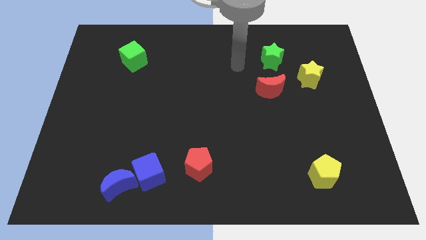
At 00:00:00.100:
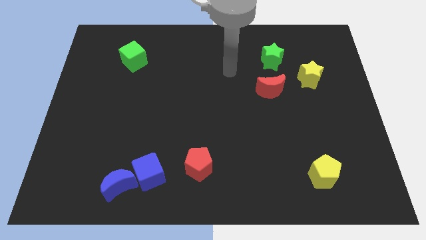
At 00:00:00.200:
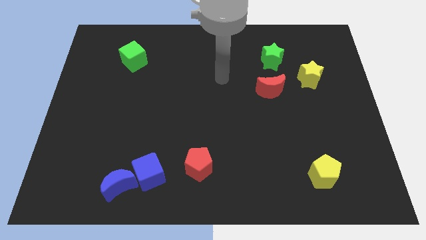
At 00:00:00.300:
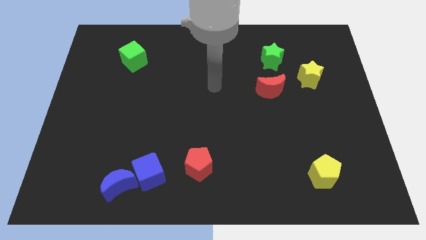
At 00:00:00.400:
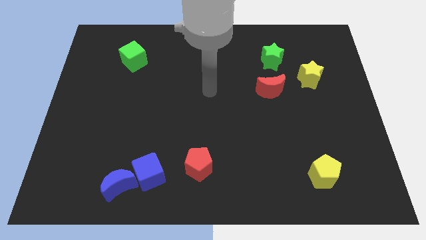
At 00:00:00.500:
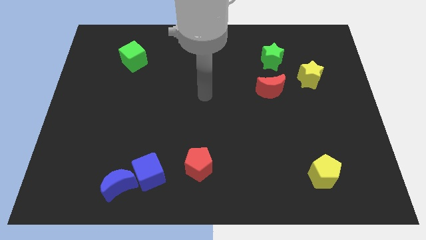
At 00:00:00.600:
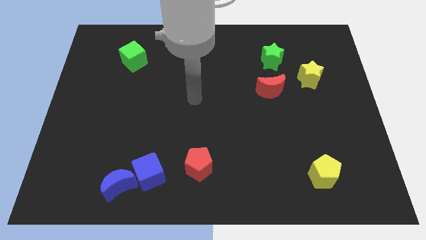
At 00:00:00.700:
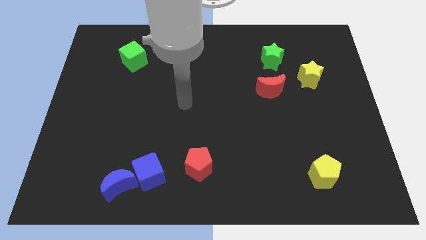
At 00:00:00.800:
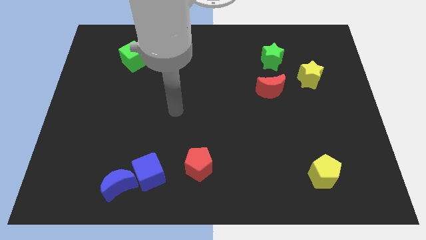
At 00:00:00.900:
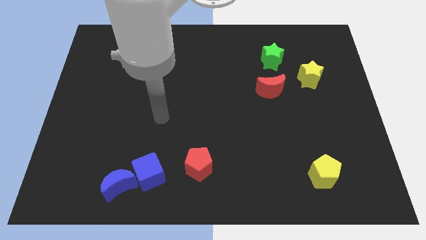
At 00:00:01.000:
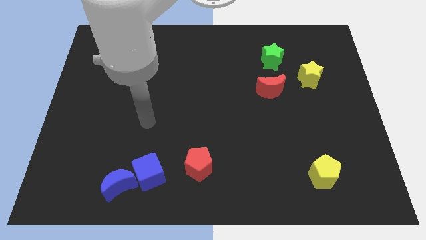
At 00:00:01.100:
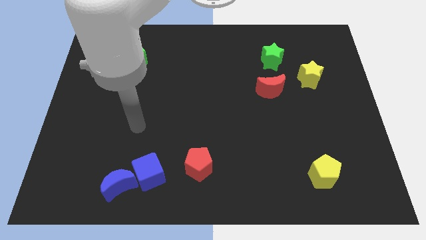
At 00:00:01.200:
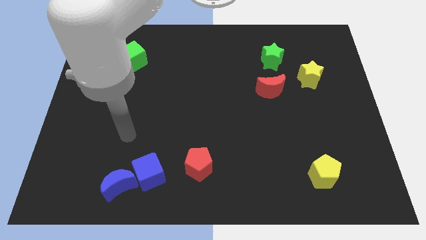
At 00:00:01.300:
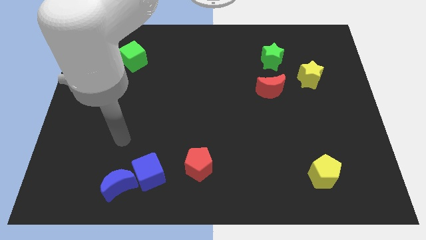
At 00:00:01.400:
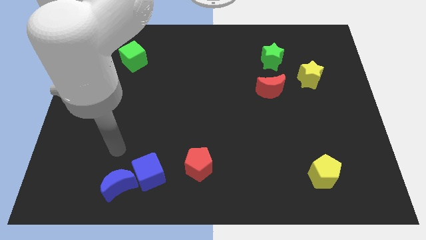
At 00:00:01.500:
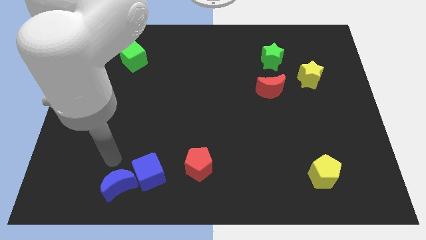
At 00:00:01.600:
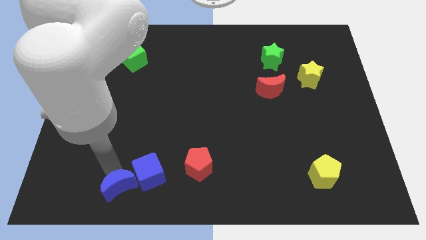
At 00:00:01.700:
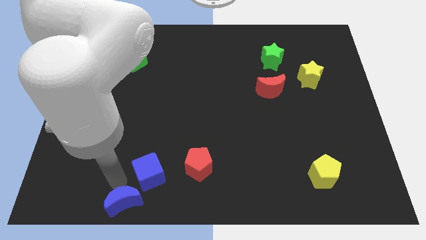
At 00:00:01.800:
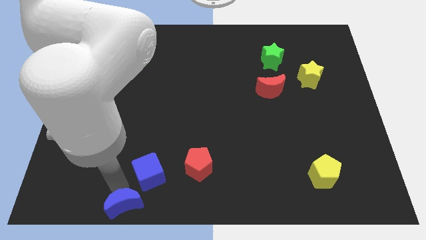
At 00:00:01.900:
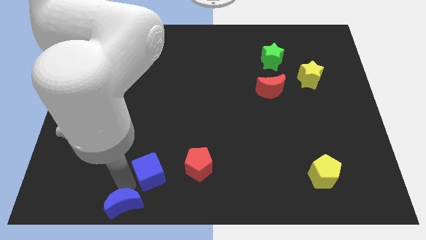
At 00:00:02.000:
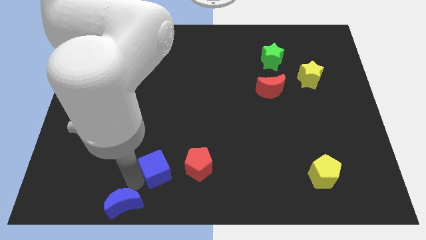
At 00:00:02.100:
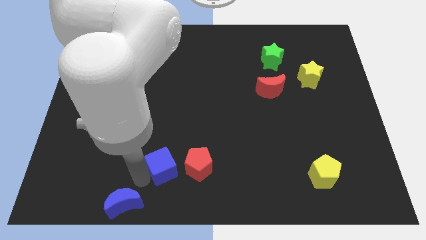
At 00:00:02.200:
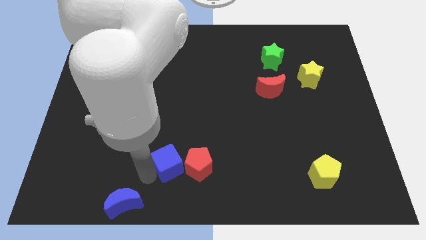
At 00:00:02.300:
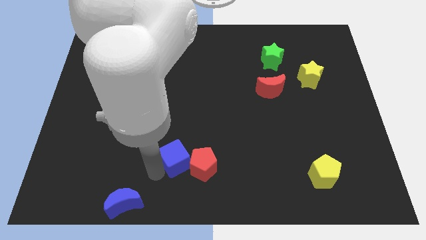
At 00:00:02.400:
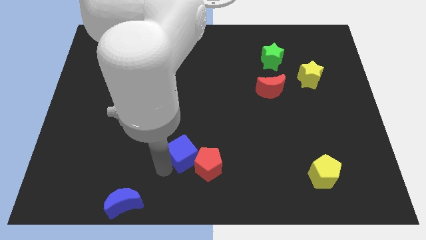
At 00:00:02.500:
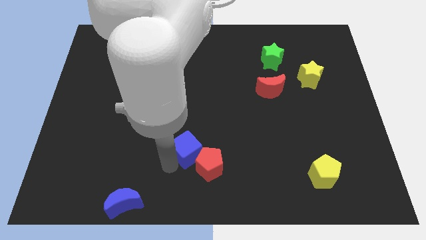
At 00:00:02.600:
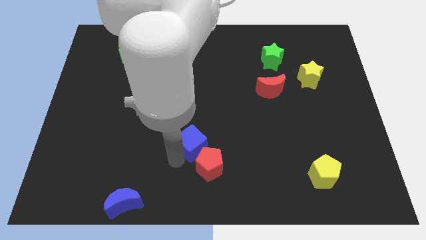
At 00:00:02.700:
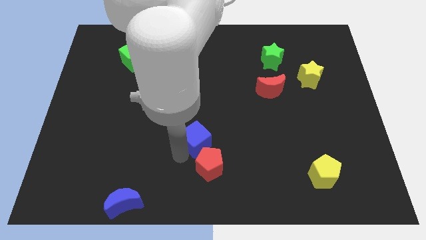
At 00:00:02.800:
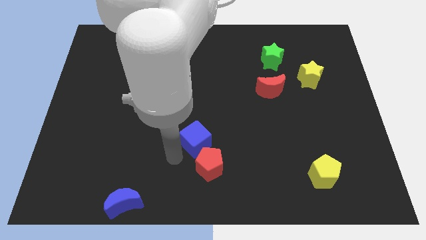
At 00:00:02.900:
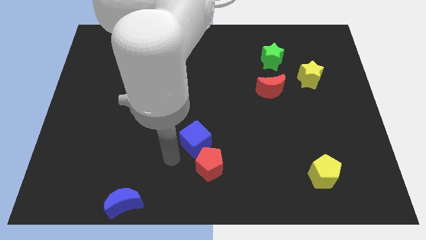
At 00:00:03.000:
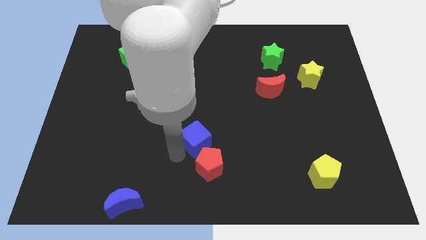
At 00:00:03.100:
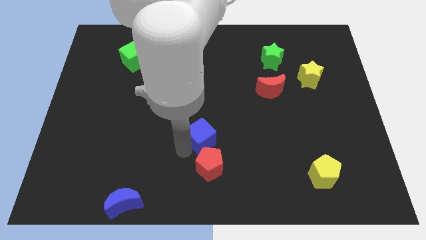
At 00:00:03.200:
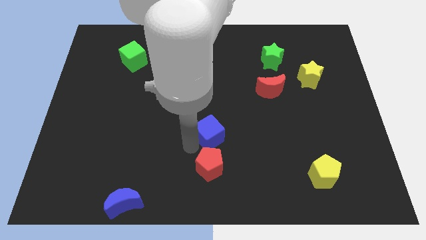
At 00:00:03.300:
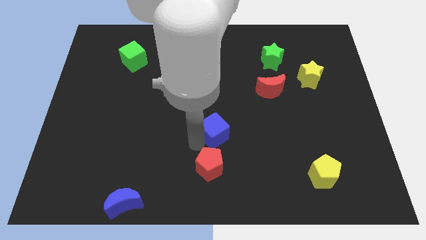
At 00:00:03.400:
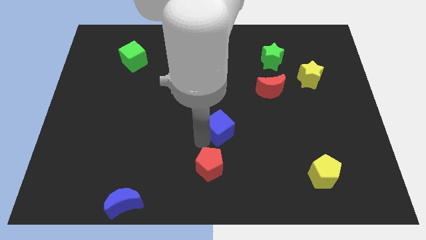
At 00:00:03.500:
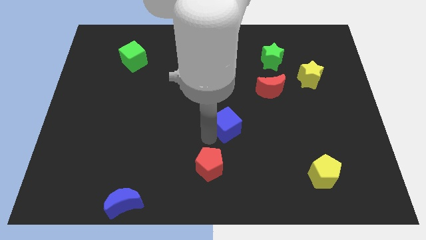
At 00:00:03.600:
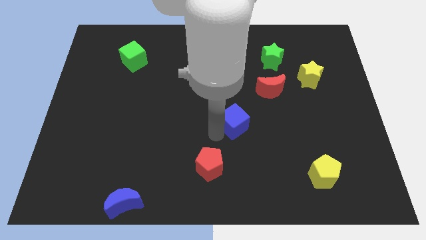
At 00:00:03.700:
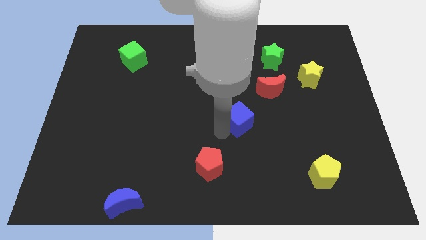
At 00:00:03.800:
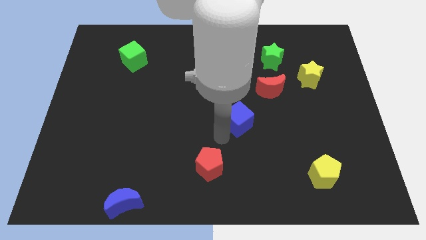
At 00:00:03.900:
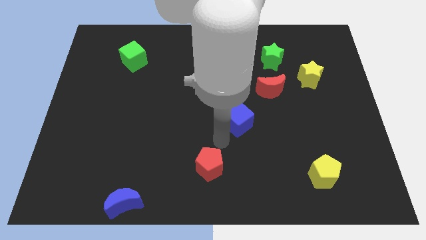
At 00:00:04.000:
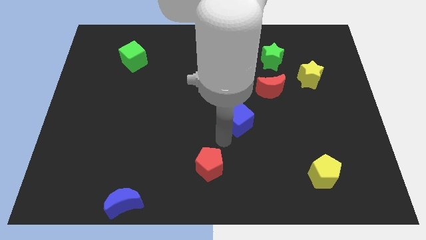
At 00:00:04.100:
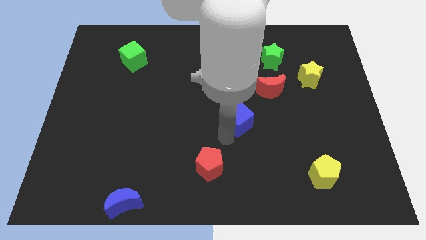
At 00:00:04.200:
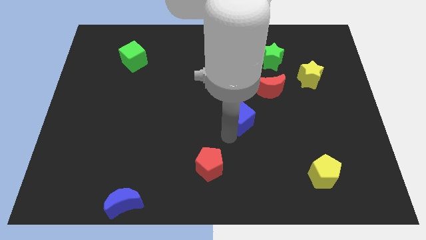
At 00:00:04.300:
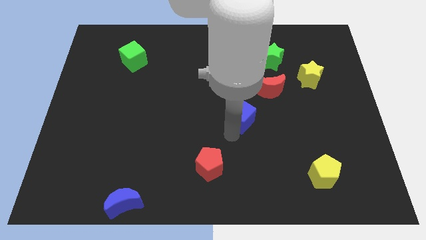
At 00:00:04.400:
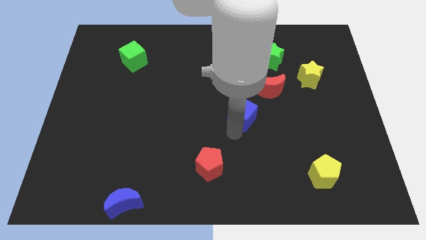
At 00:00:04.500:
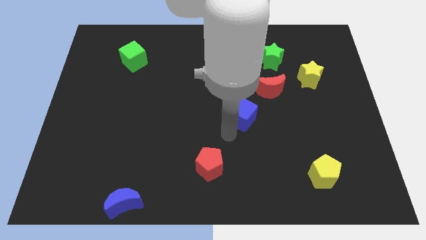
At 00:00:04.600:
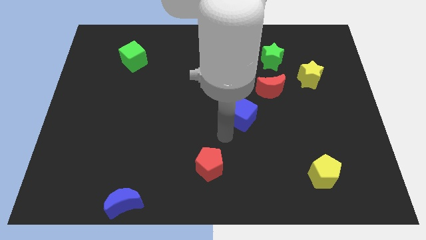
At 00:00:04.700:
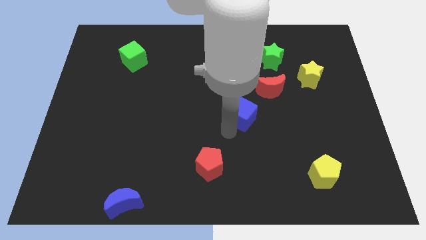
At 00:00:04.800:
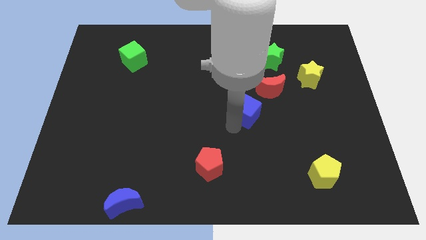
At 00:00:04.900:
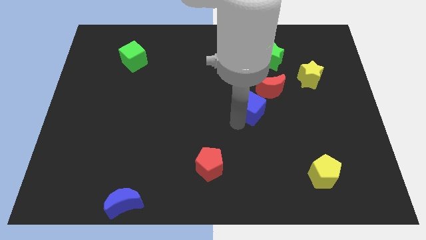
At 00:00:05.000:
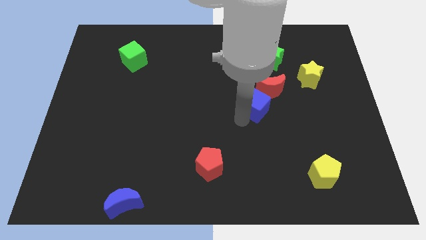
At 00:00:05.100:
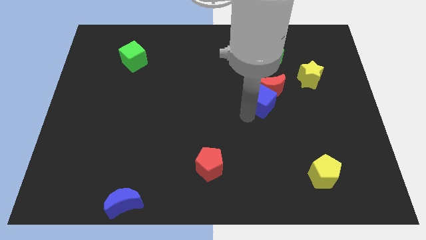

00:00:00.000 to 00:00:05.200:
move the blue cube towards the red moon

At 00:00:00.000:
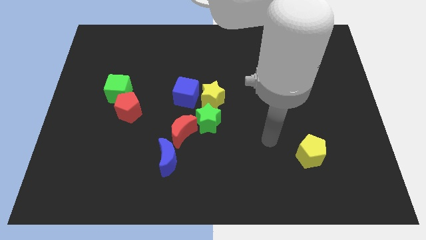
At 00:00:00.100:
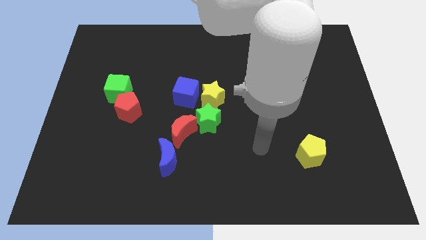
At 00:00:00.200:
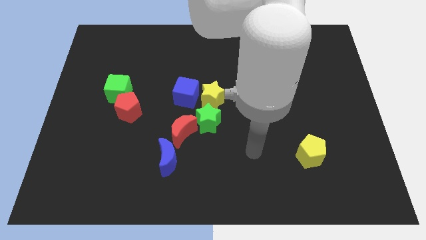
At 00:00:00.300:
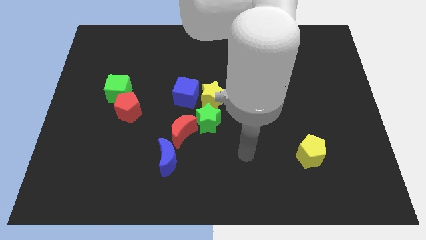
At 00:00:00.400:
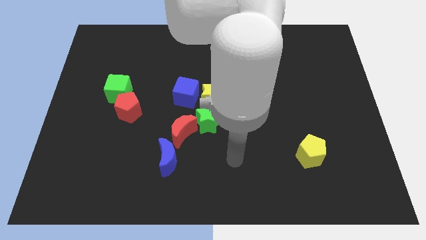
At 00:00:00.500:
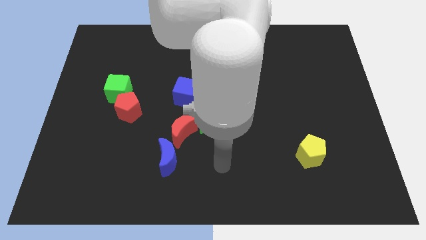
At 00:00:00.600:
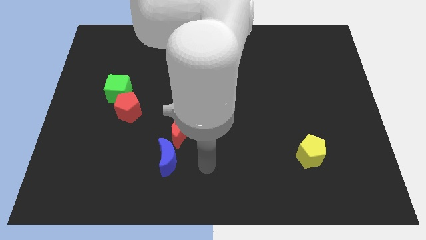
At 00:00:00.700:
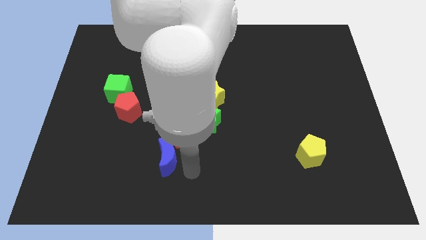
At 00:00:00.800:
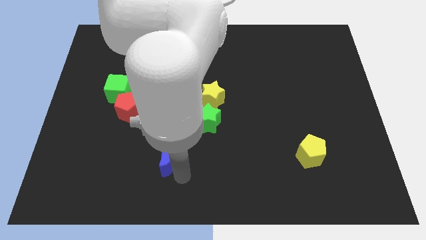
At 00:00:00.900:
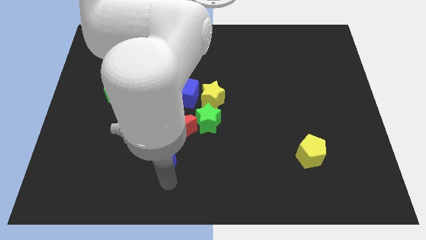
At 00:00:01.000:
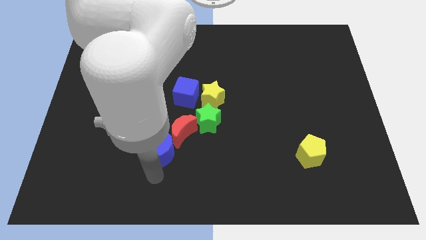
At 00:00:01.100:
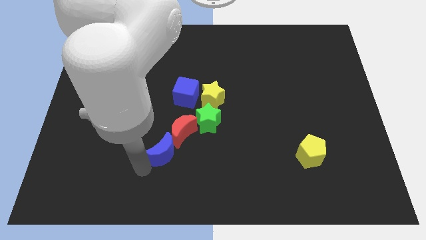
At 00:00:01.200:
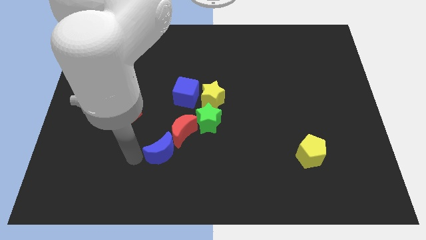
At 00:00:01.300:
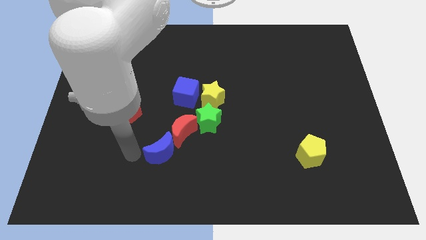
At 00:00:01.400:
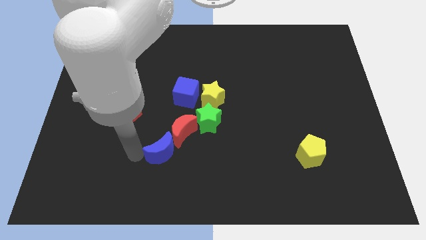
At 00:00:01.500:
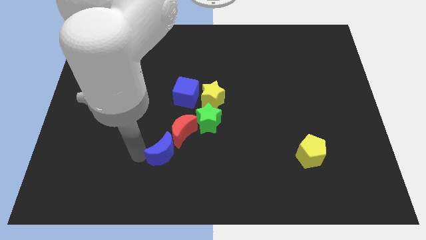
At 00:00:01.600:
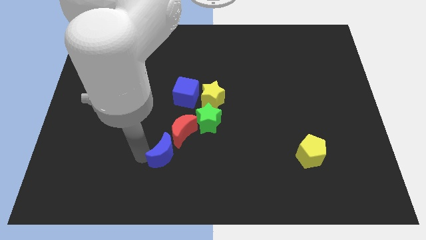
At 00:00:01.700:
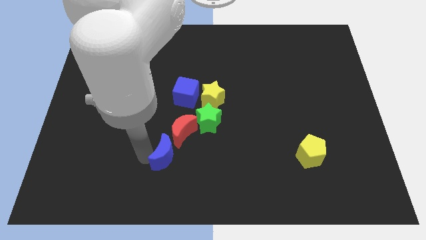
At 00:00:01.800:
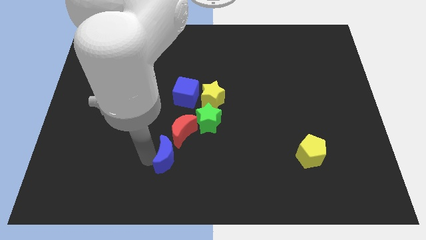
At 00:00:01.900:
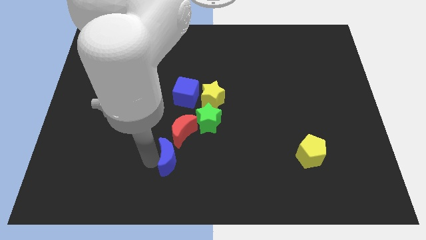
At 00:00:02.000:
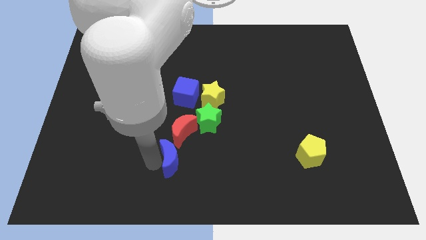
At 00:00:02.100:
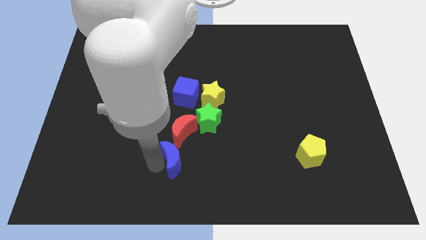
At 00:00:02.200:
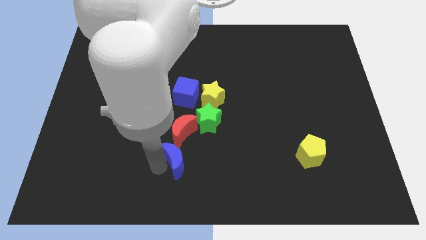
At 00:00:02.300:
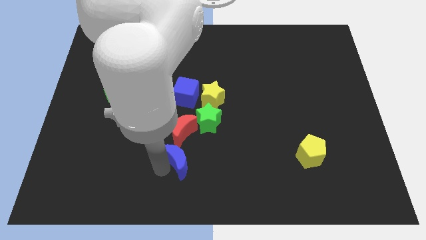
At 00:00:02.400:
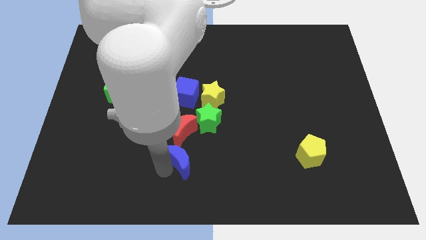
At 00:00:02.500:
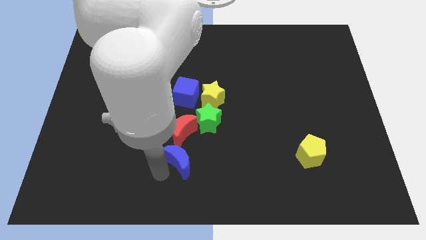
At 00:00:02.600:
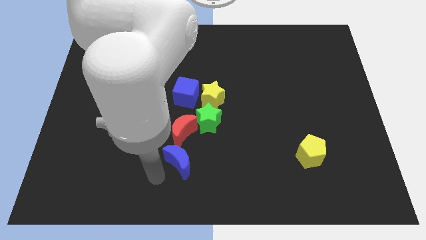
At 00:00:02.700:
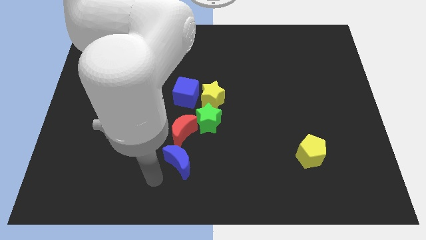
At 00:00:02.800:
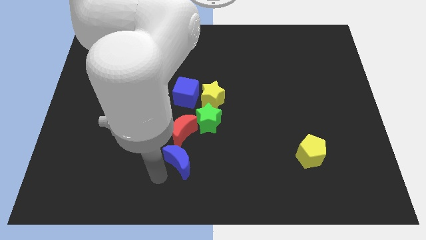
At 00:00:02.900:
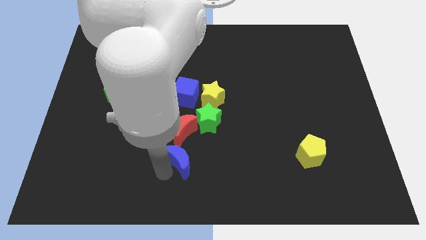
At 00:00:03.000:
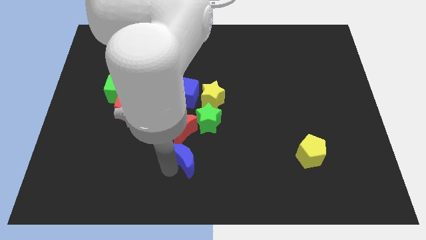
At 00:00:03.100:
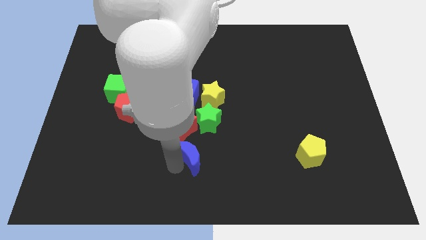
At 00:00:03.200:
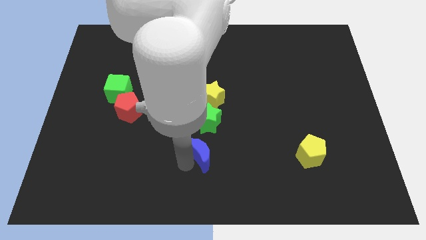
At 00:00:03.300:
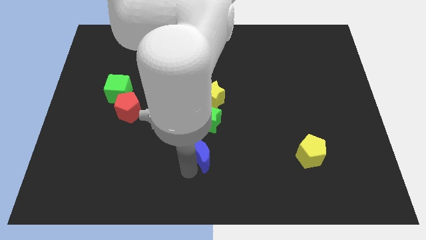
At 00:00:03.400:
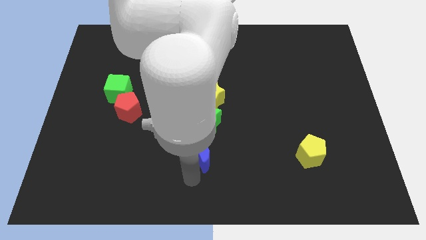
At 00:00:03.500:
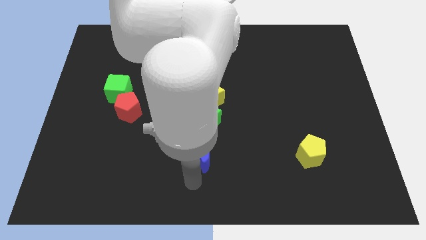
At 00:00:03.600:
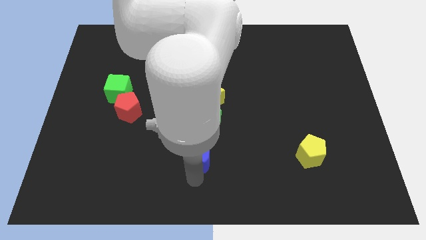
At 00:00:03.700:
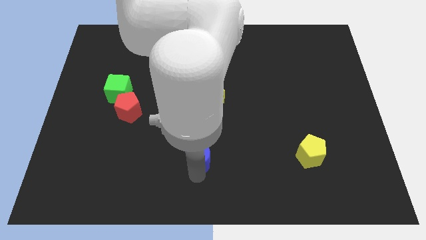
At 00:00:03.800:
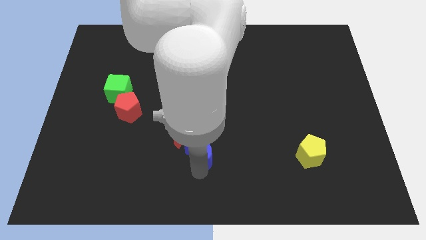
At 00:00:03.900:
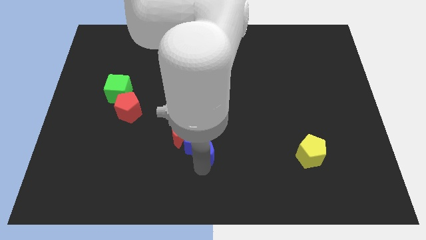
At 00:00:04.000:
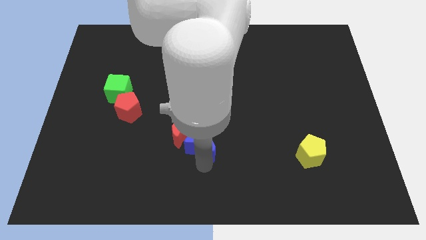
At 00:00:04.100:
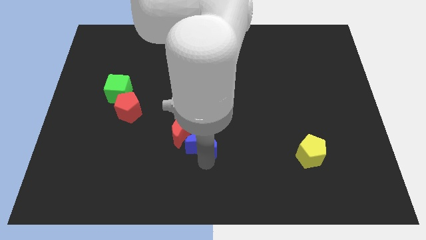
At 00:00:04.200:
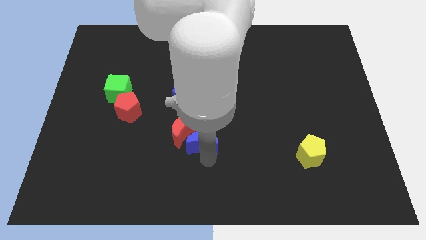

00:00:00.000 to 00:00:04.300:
push the blue moon towards the green star
